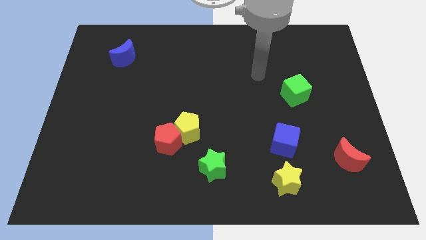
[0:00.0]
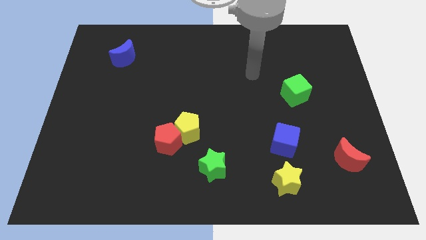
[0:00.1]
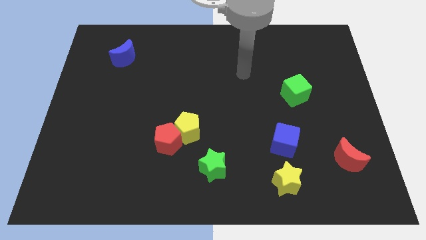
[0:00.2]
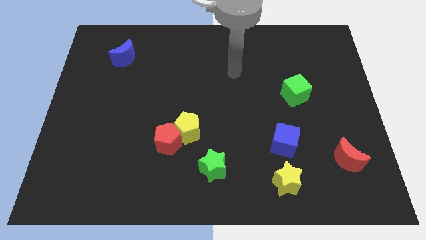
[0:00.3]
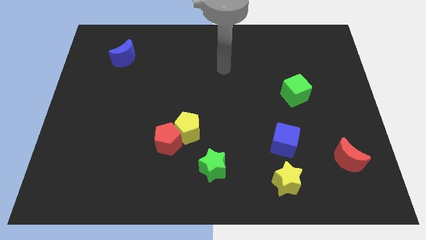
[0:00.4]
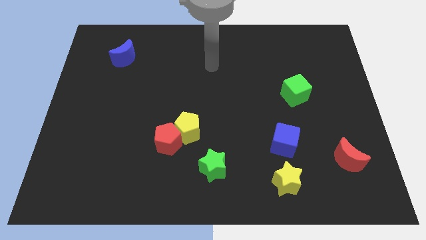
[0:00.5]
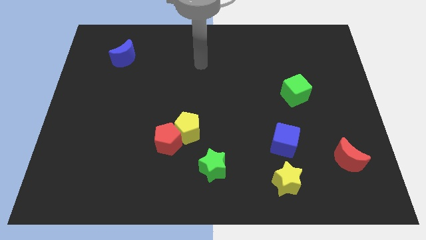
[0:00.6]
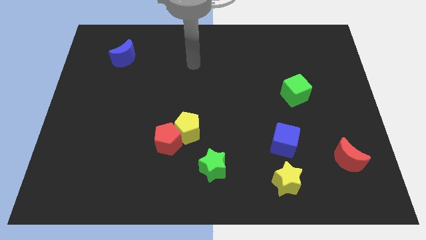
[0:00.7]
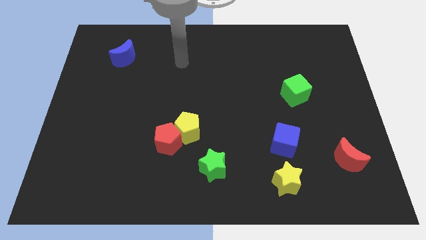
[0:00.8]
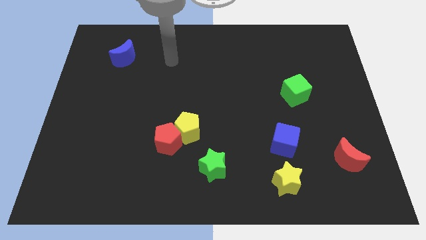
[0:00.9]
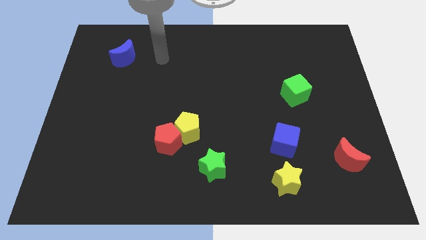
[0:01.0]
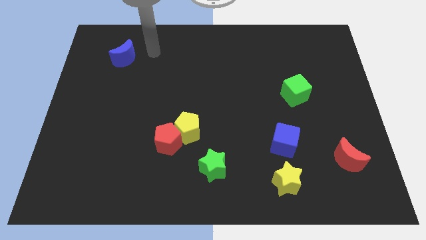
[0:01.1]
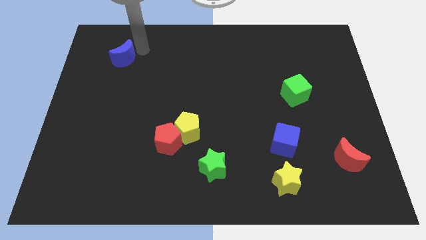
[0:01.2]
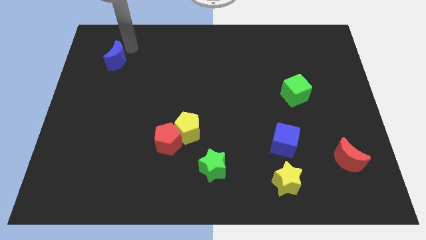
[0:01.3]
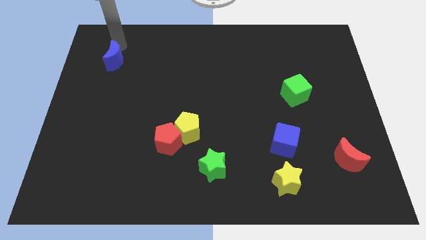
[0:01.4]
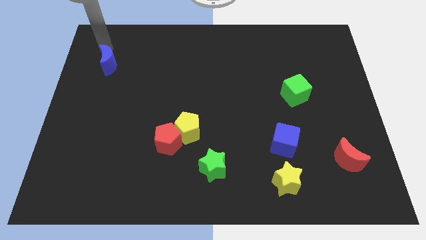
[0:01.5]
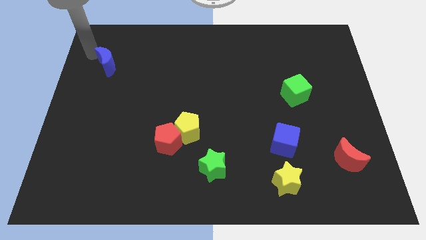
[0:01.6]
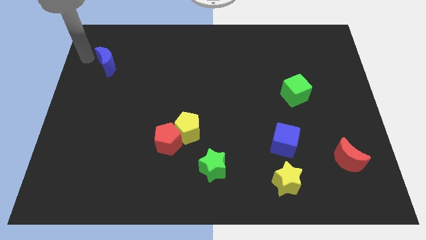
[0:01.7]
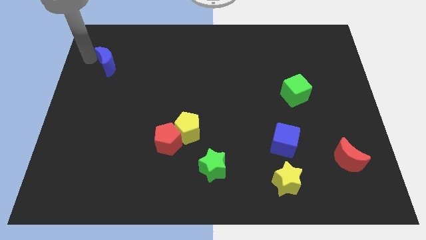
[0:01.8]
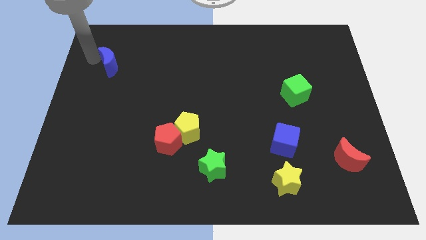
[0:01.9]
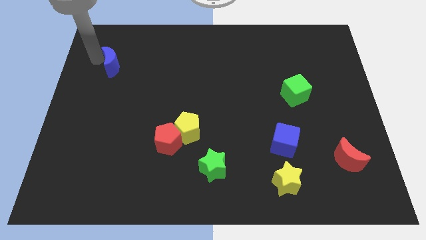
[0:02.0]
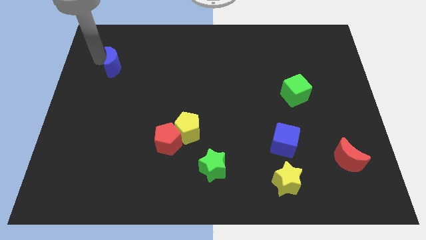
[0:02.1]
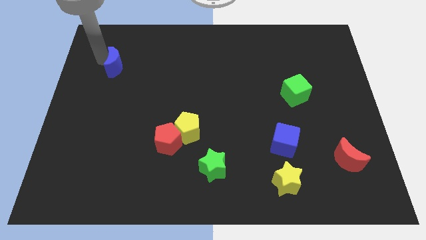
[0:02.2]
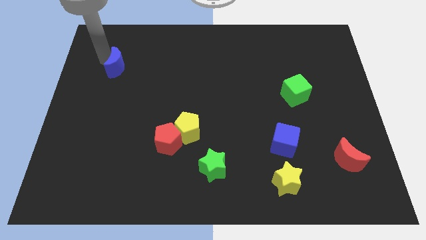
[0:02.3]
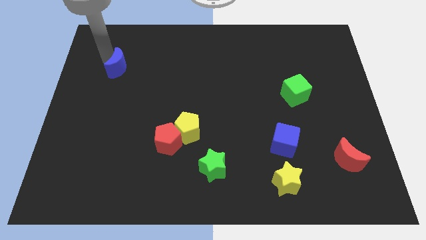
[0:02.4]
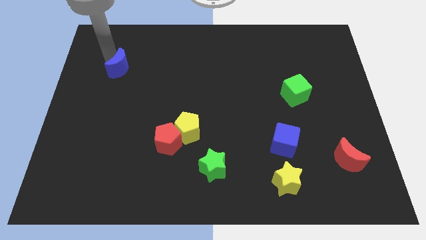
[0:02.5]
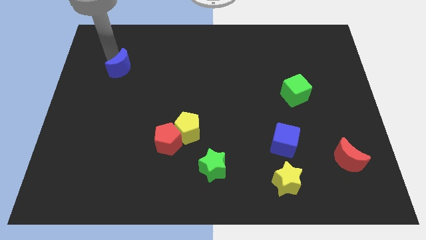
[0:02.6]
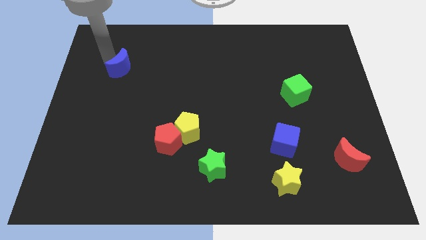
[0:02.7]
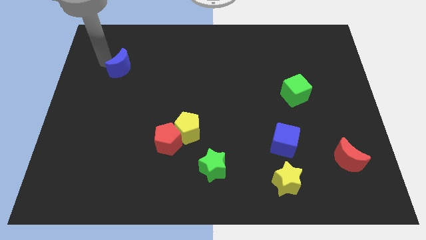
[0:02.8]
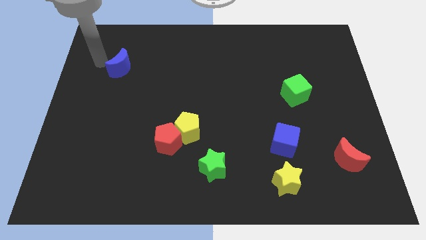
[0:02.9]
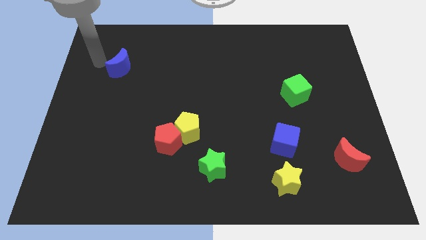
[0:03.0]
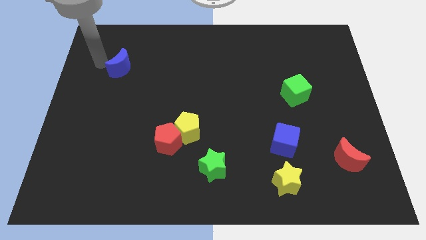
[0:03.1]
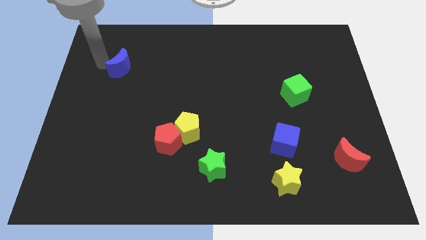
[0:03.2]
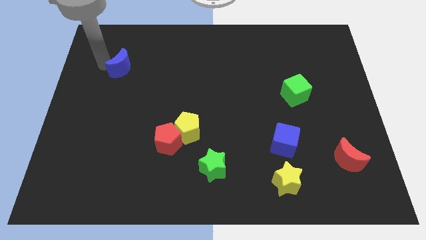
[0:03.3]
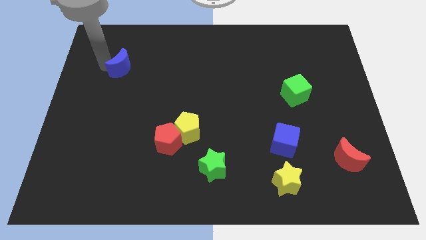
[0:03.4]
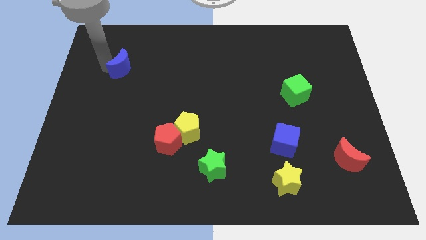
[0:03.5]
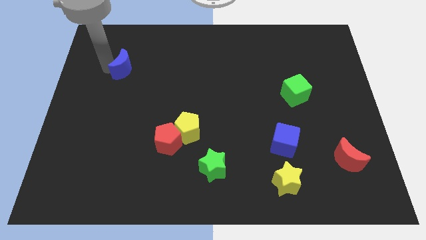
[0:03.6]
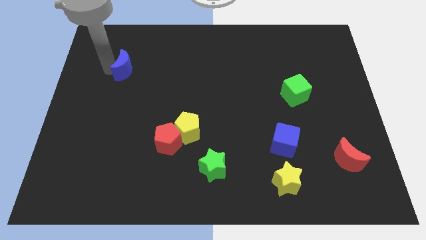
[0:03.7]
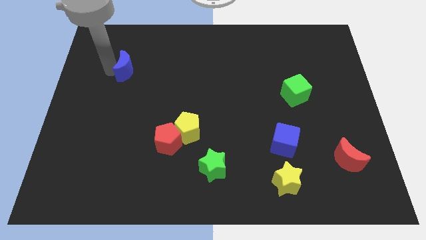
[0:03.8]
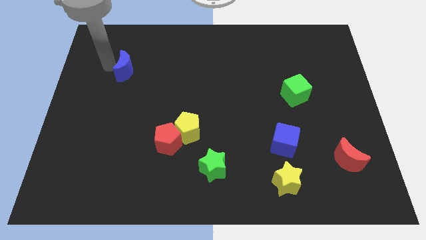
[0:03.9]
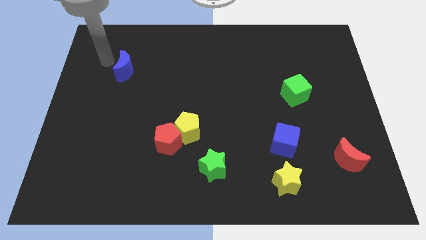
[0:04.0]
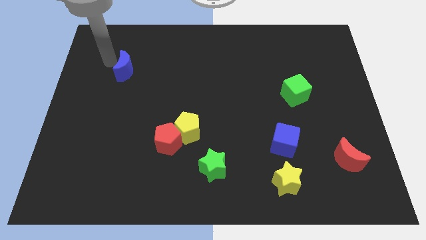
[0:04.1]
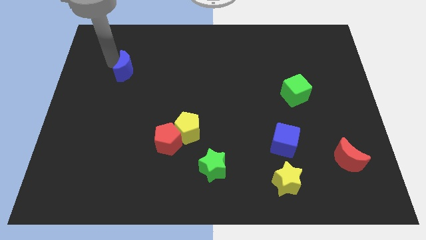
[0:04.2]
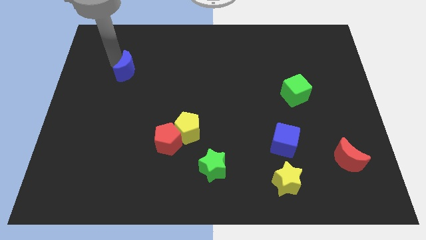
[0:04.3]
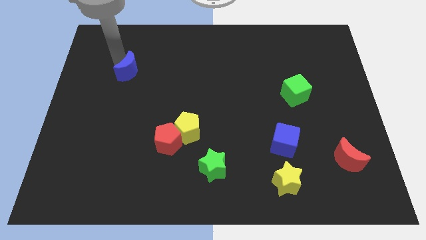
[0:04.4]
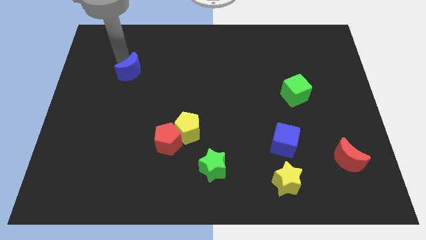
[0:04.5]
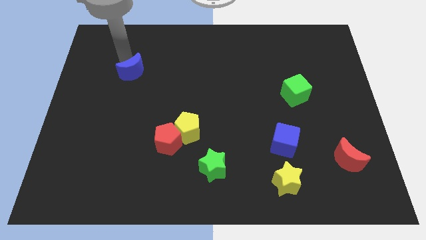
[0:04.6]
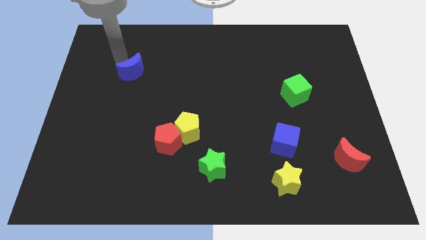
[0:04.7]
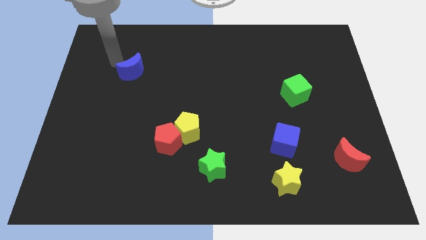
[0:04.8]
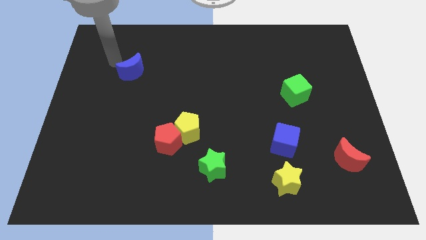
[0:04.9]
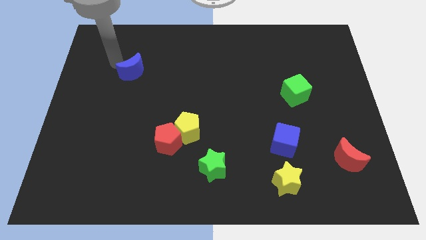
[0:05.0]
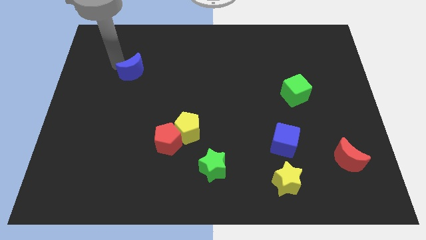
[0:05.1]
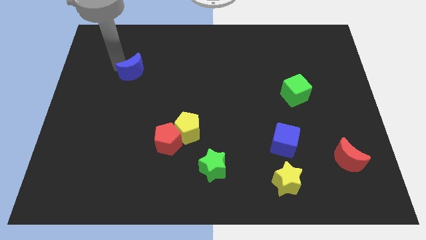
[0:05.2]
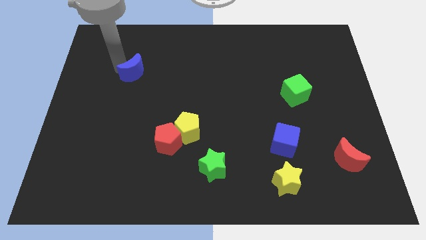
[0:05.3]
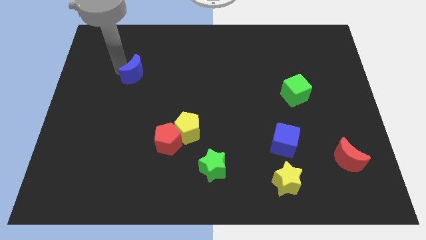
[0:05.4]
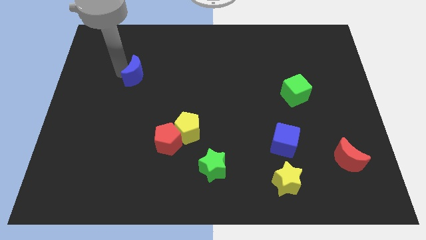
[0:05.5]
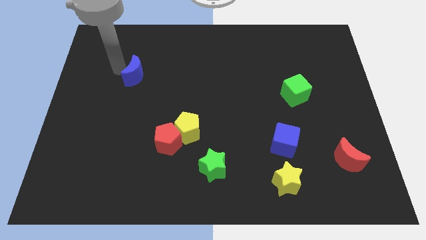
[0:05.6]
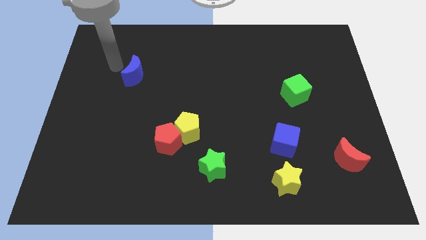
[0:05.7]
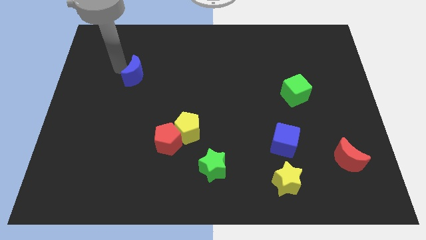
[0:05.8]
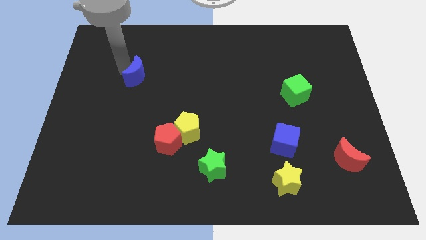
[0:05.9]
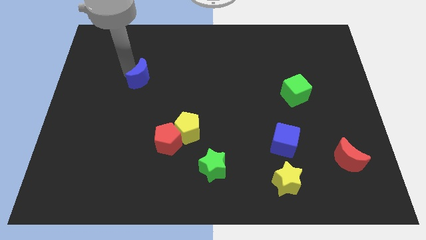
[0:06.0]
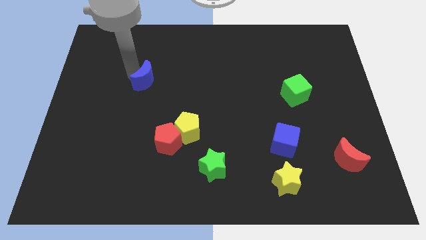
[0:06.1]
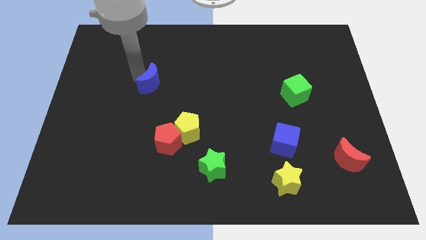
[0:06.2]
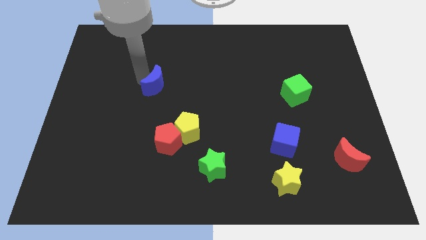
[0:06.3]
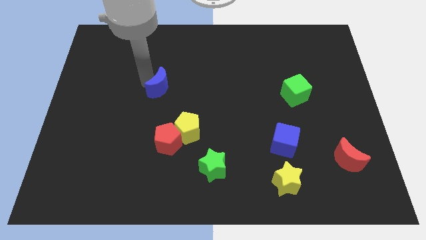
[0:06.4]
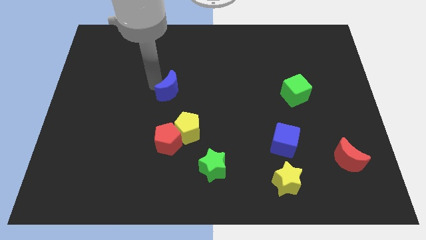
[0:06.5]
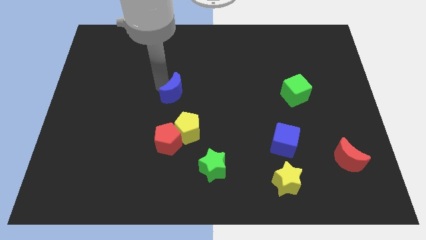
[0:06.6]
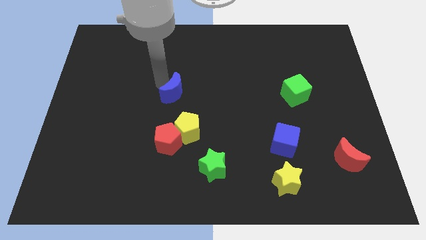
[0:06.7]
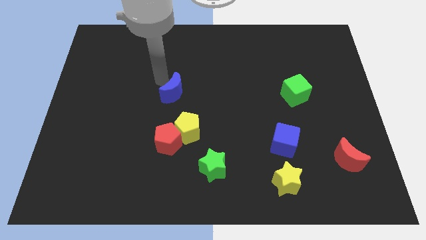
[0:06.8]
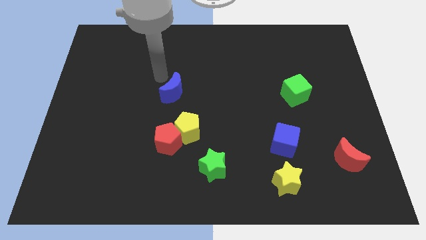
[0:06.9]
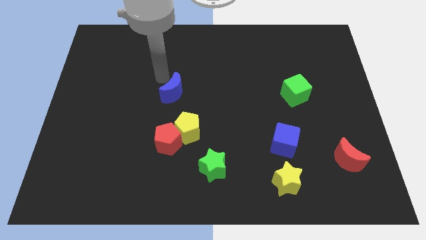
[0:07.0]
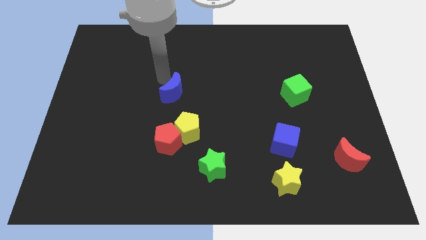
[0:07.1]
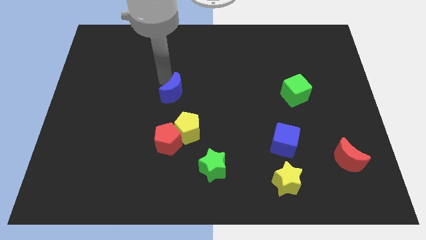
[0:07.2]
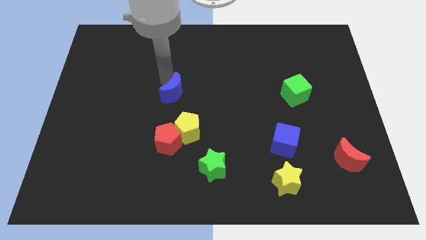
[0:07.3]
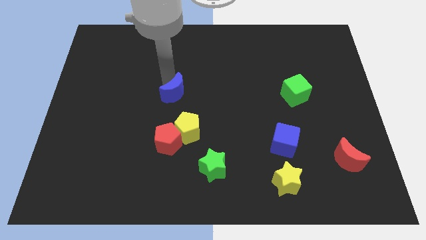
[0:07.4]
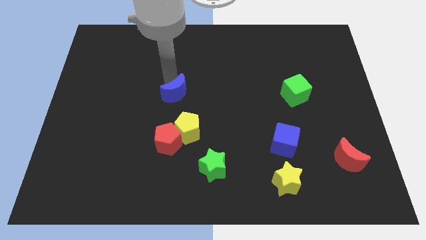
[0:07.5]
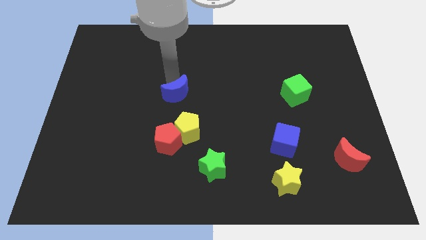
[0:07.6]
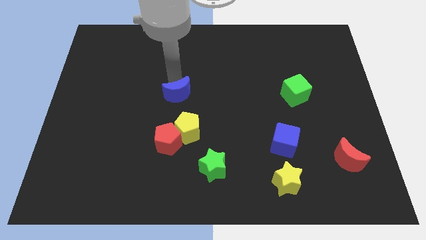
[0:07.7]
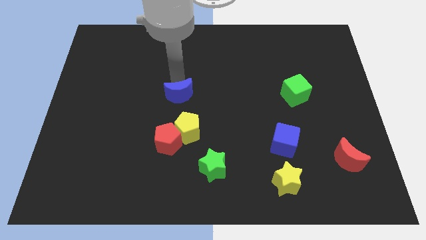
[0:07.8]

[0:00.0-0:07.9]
push the blue moon downwards and to the right diagonally
